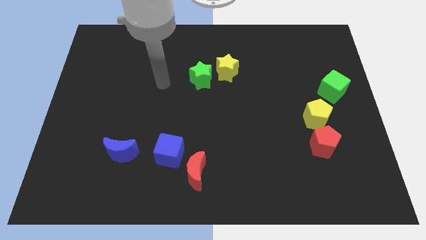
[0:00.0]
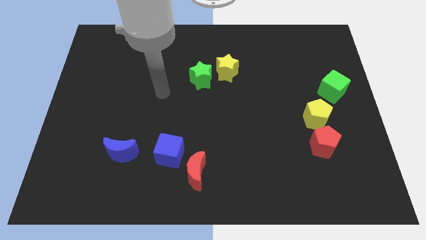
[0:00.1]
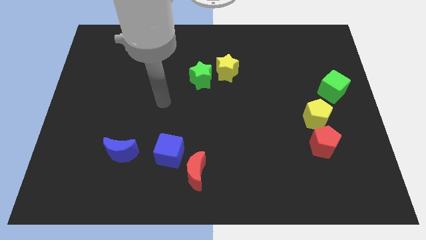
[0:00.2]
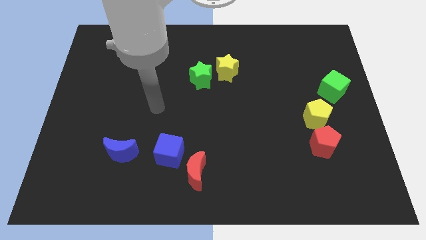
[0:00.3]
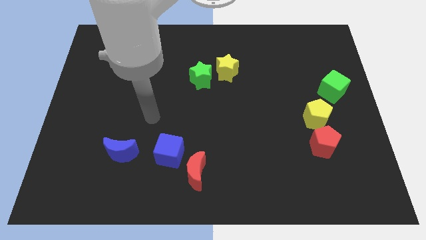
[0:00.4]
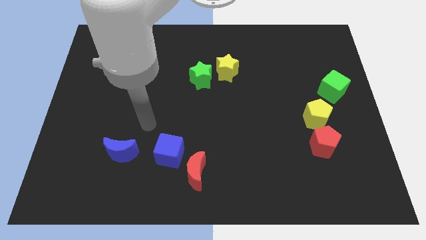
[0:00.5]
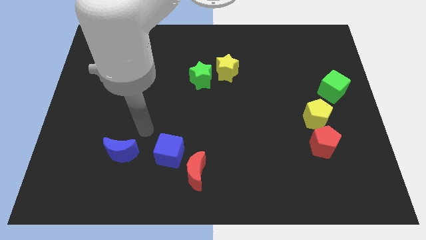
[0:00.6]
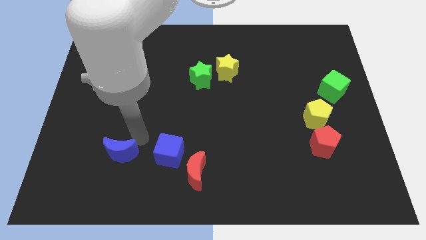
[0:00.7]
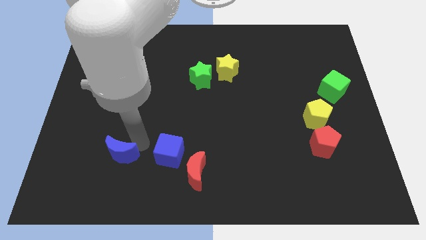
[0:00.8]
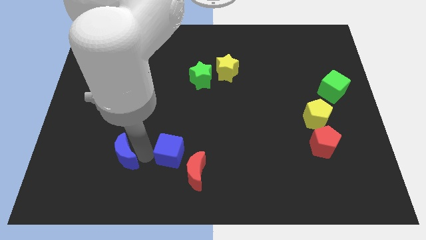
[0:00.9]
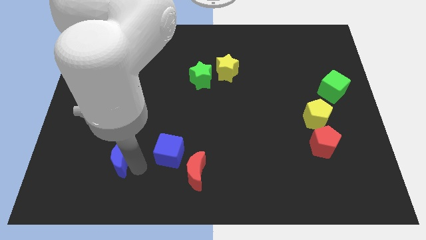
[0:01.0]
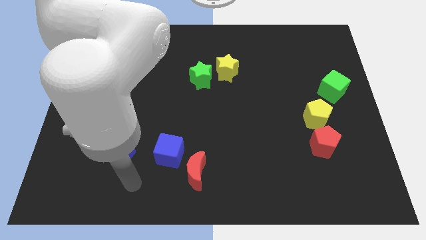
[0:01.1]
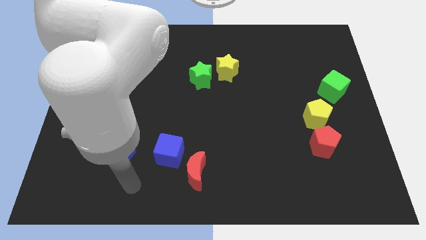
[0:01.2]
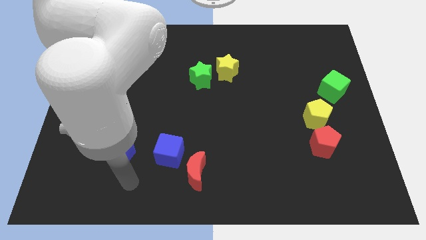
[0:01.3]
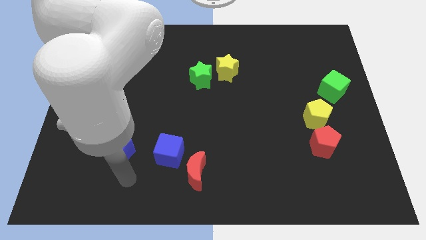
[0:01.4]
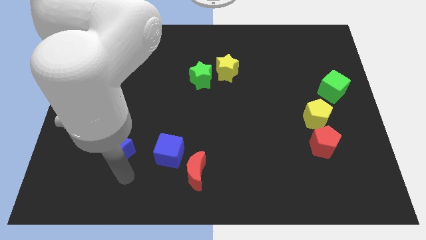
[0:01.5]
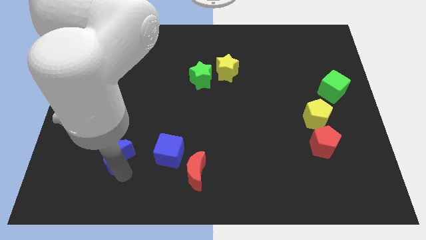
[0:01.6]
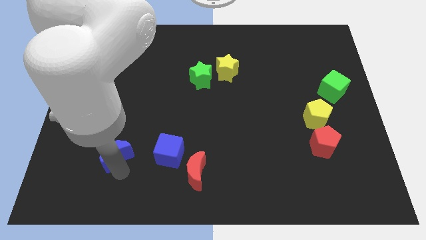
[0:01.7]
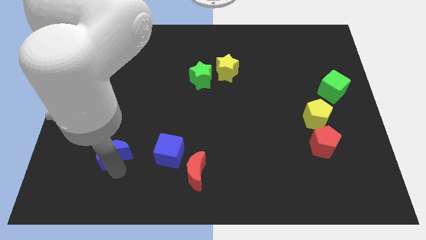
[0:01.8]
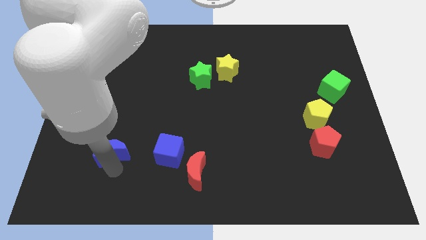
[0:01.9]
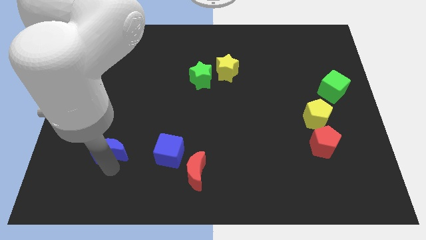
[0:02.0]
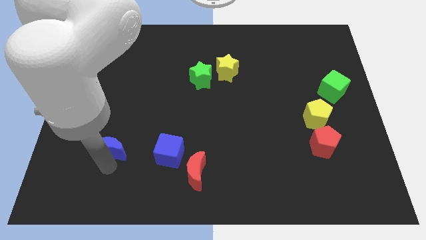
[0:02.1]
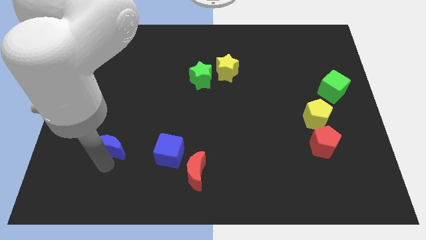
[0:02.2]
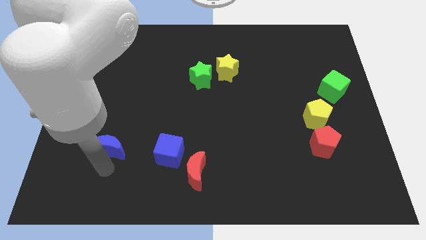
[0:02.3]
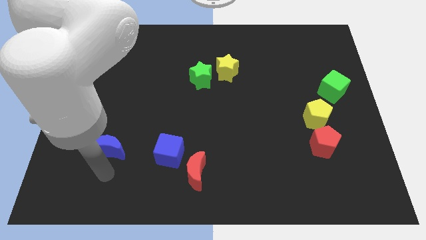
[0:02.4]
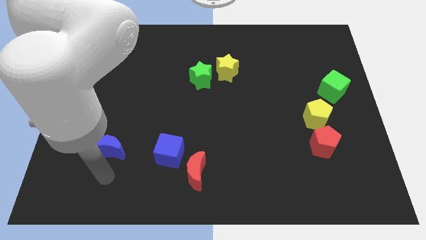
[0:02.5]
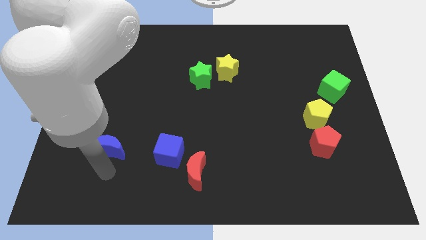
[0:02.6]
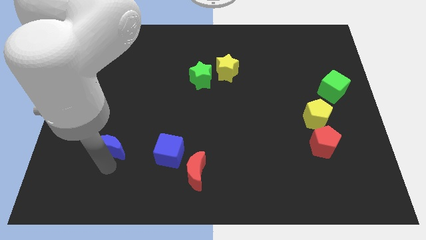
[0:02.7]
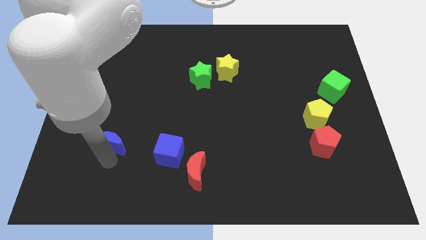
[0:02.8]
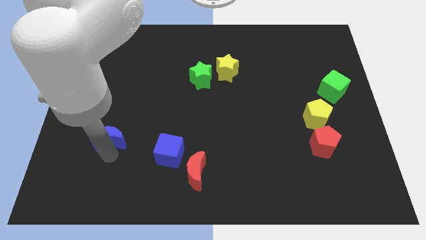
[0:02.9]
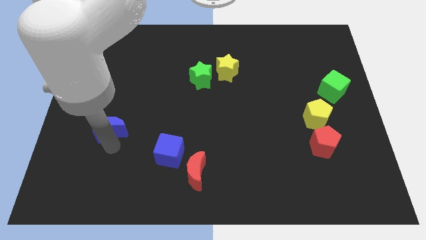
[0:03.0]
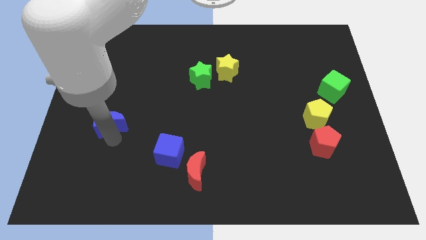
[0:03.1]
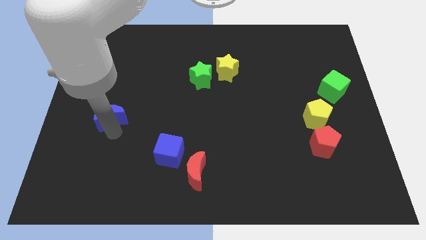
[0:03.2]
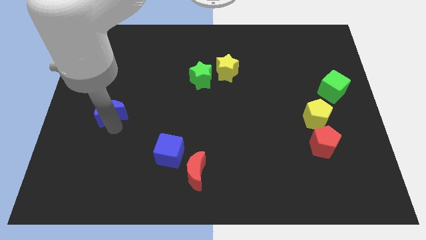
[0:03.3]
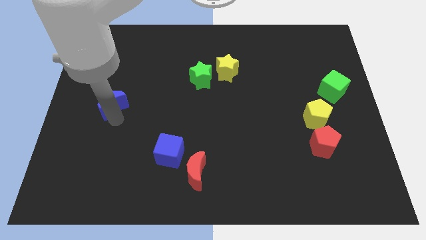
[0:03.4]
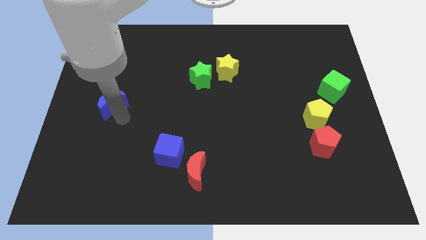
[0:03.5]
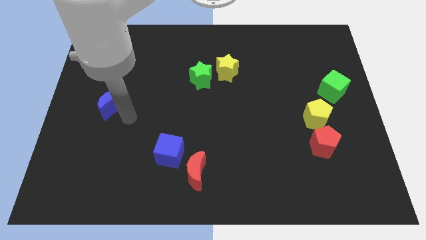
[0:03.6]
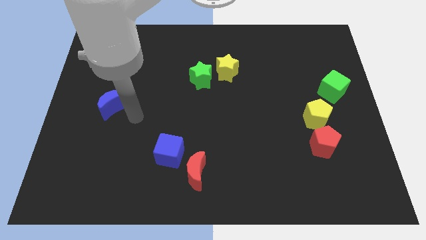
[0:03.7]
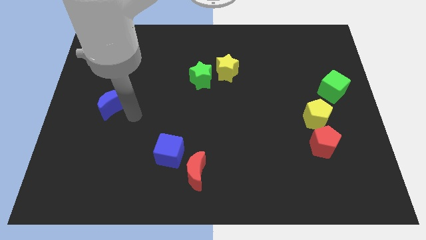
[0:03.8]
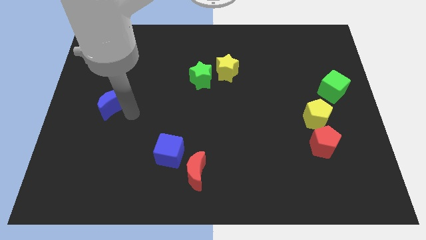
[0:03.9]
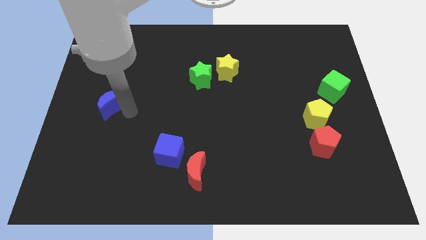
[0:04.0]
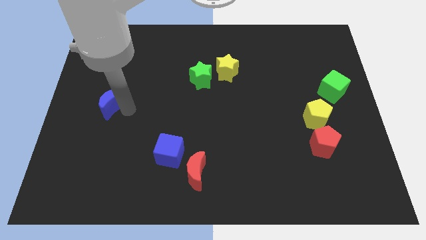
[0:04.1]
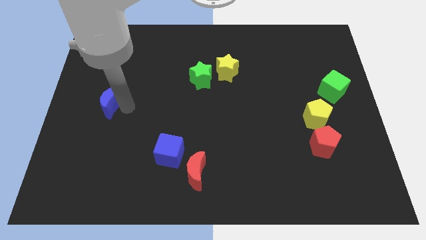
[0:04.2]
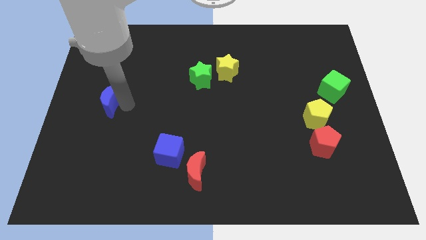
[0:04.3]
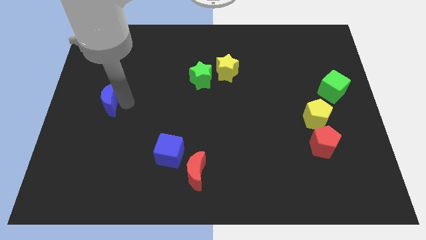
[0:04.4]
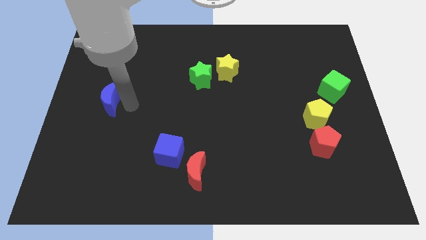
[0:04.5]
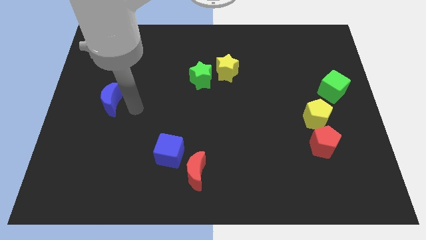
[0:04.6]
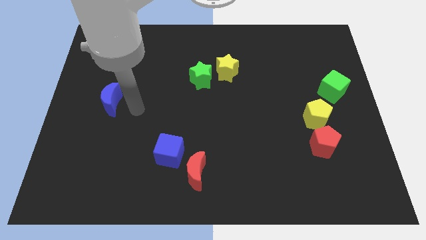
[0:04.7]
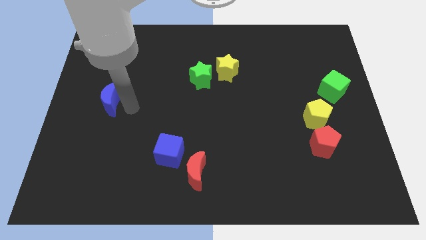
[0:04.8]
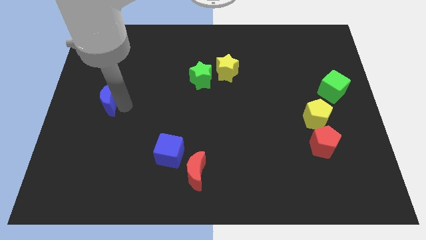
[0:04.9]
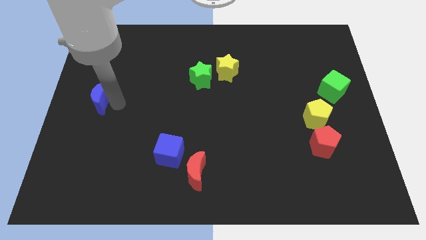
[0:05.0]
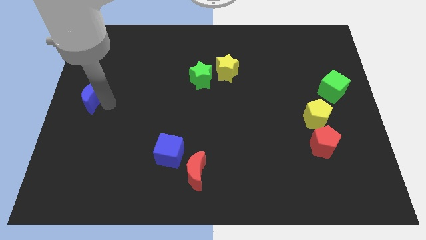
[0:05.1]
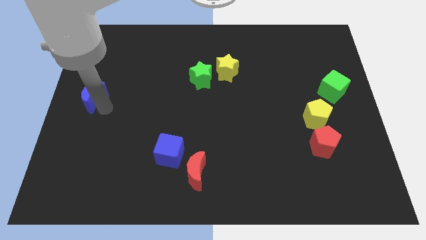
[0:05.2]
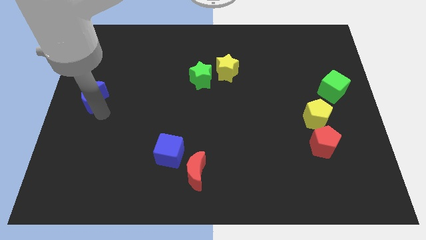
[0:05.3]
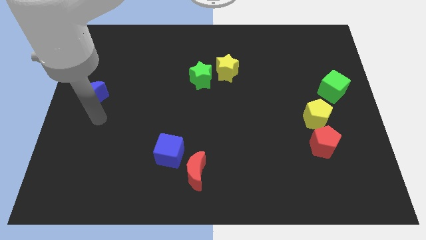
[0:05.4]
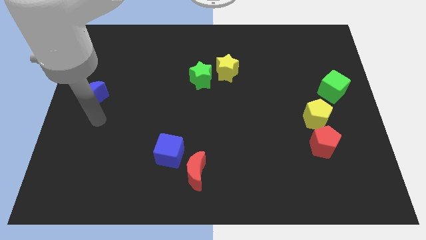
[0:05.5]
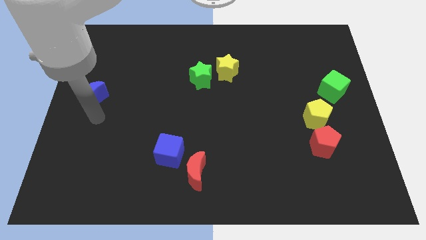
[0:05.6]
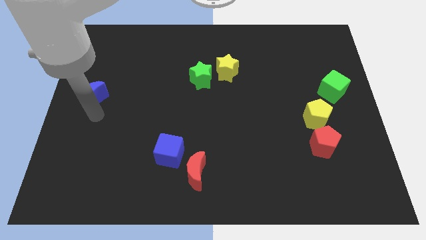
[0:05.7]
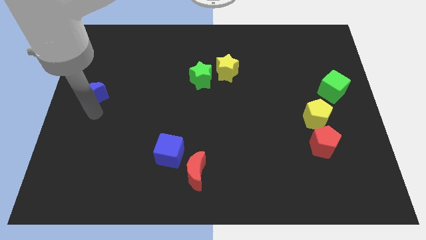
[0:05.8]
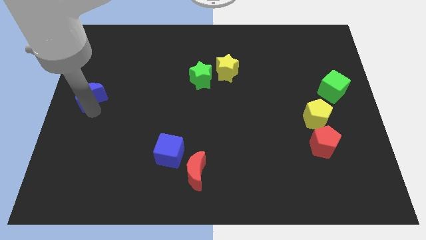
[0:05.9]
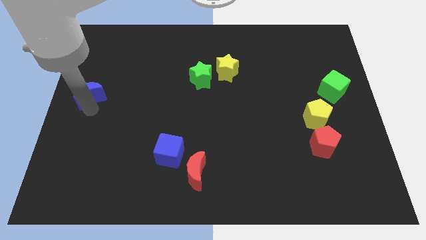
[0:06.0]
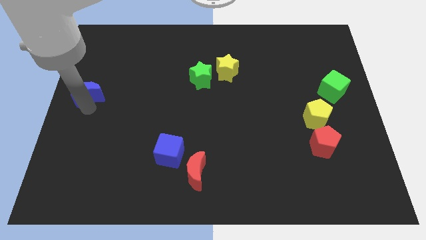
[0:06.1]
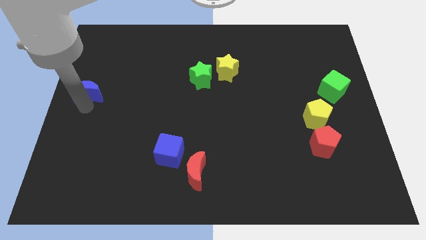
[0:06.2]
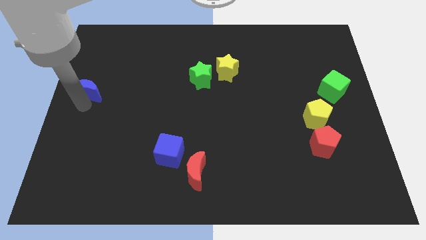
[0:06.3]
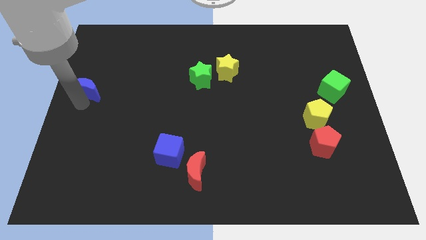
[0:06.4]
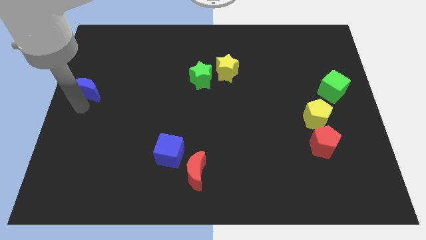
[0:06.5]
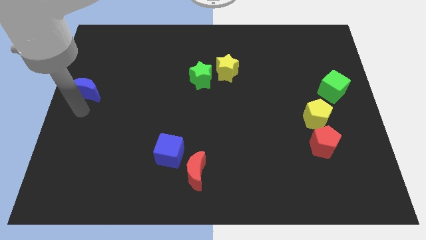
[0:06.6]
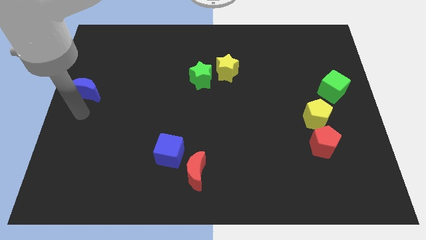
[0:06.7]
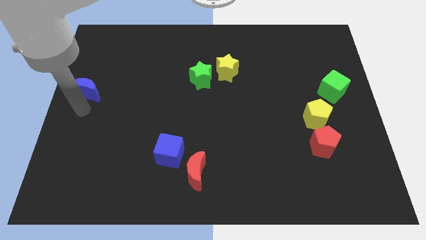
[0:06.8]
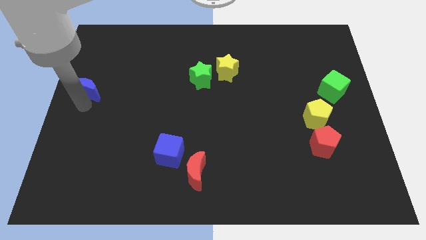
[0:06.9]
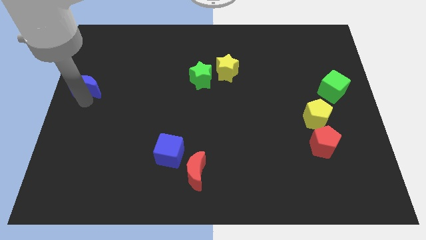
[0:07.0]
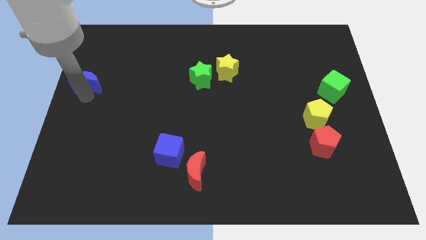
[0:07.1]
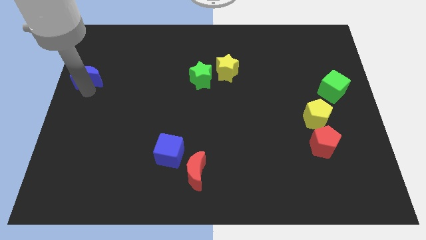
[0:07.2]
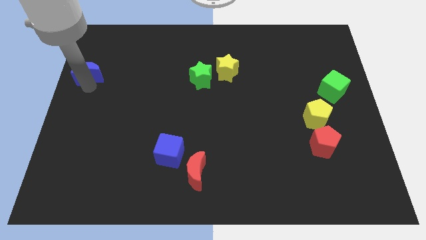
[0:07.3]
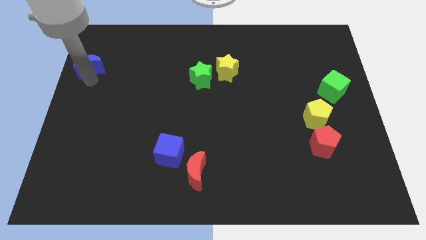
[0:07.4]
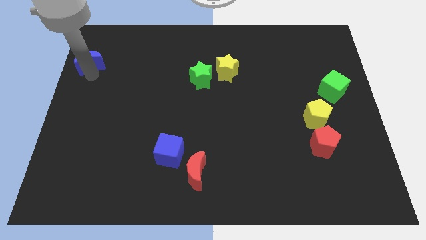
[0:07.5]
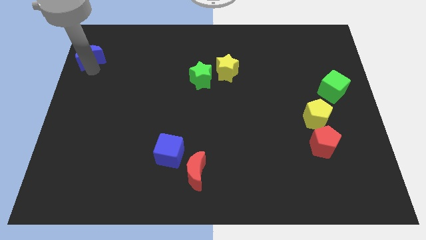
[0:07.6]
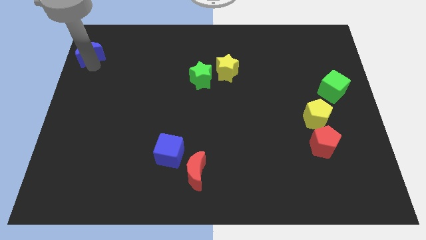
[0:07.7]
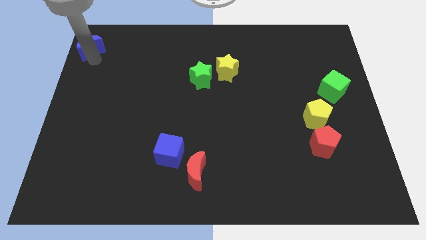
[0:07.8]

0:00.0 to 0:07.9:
slide the blue moon to the upper left corner
